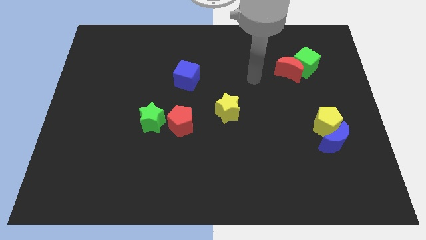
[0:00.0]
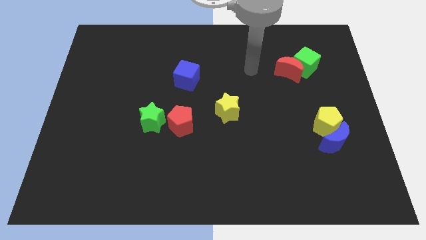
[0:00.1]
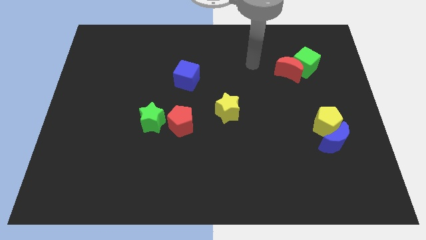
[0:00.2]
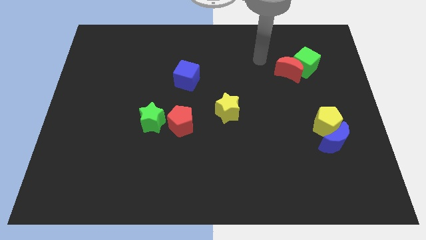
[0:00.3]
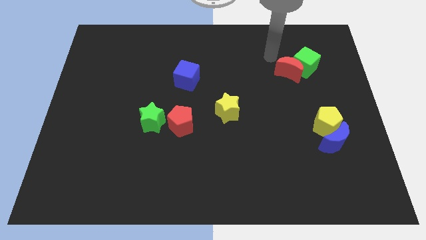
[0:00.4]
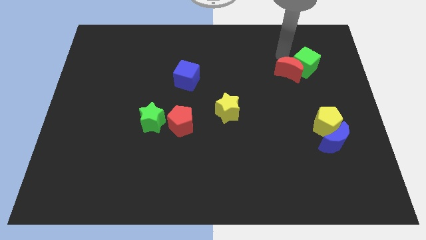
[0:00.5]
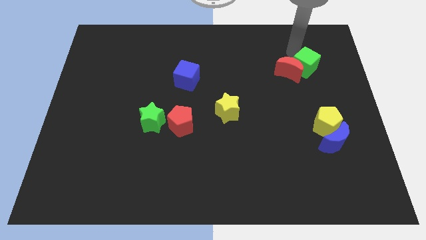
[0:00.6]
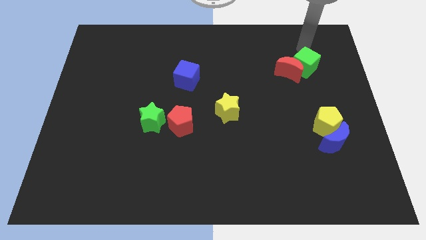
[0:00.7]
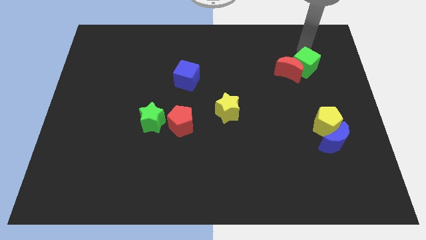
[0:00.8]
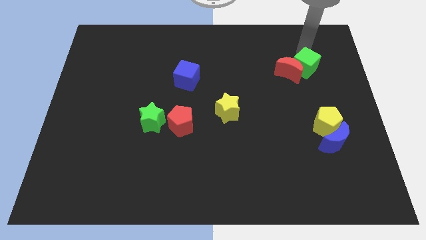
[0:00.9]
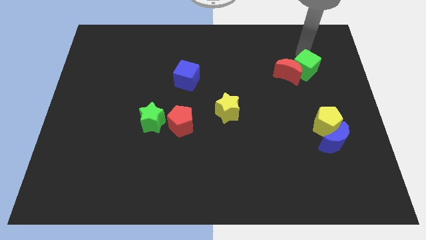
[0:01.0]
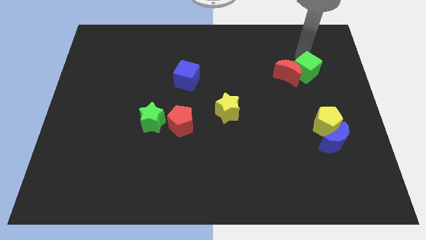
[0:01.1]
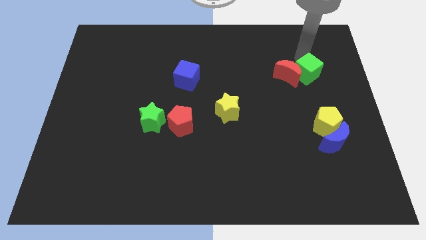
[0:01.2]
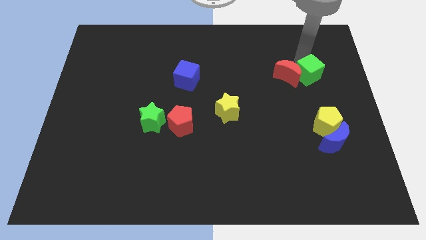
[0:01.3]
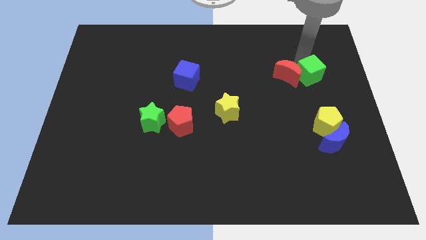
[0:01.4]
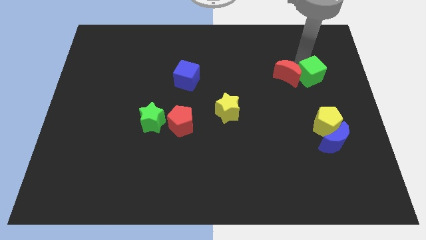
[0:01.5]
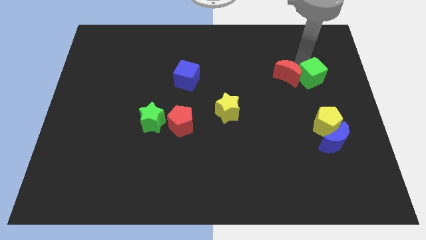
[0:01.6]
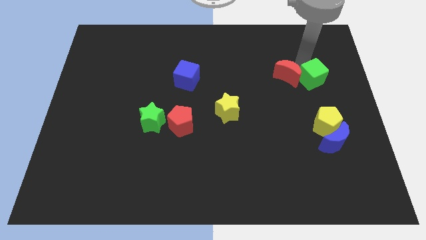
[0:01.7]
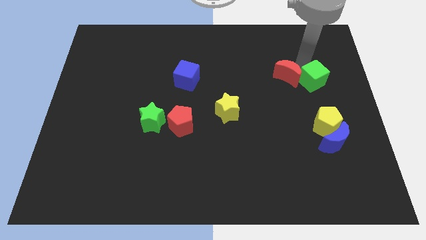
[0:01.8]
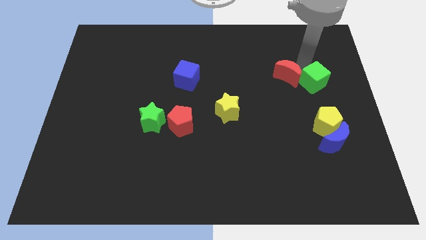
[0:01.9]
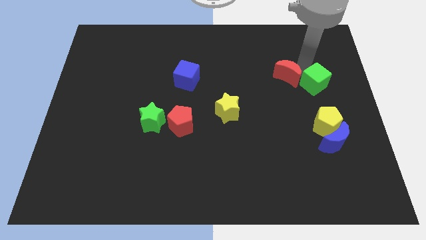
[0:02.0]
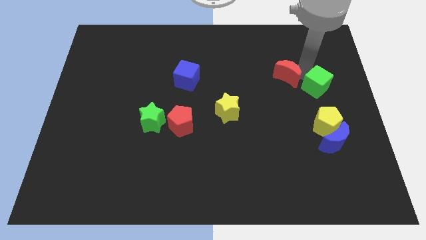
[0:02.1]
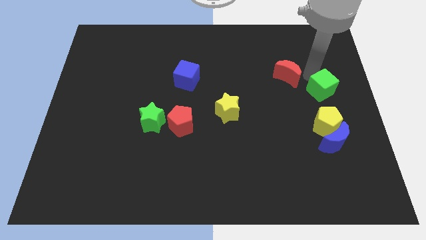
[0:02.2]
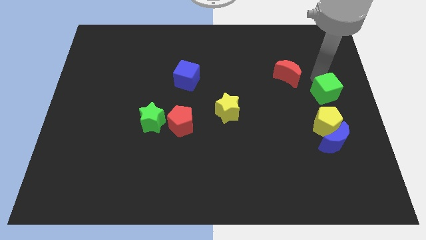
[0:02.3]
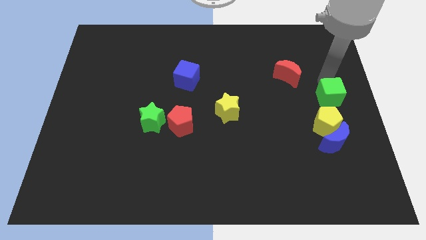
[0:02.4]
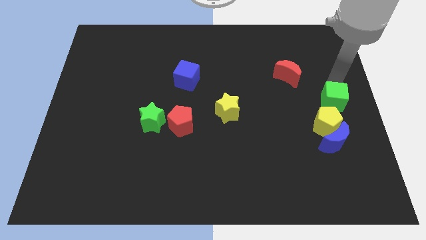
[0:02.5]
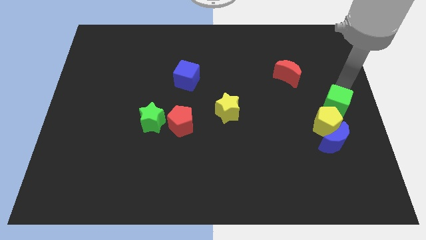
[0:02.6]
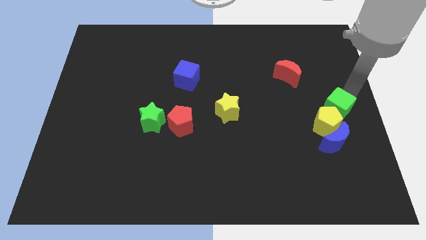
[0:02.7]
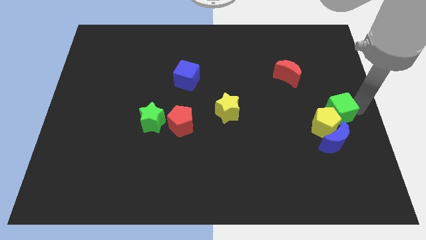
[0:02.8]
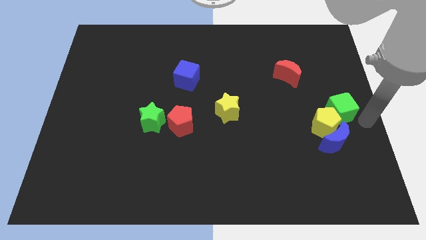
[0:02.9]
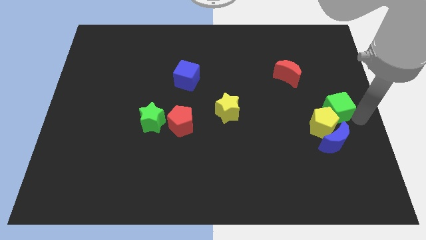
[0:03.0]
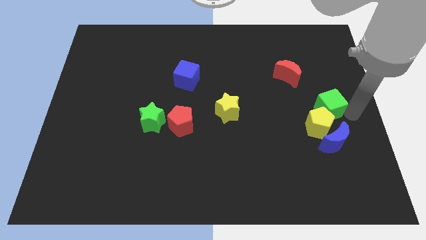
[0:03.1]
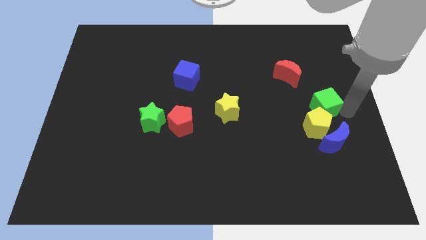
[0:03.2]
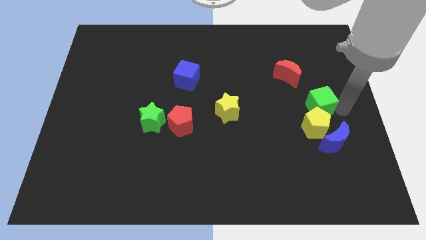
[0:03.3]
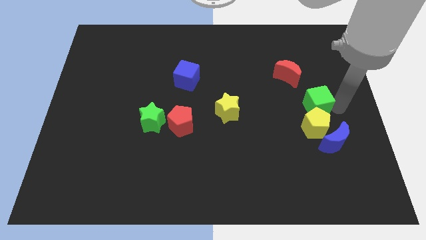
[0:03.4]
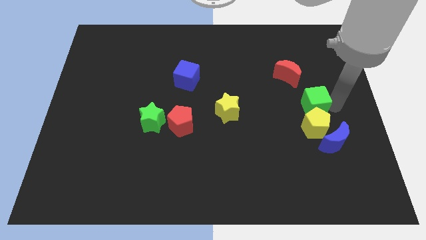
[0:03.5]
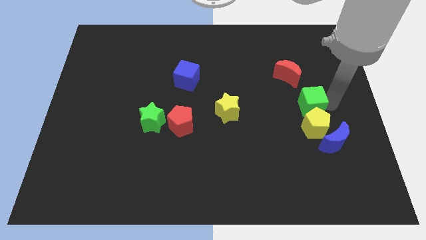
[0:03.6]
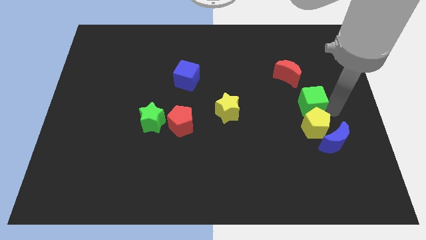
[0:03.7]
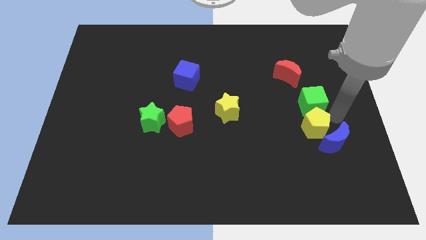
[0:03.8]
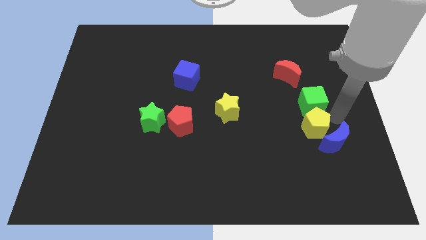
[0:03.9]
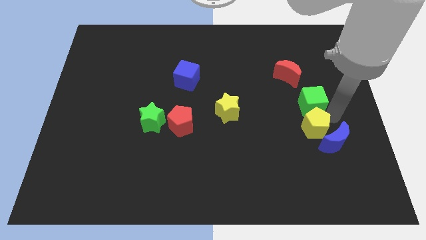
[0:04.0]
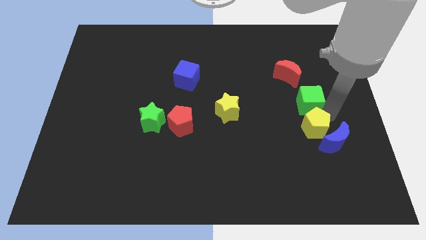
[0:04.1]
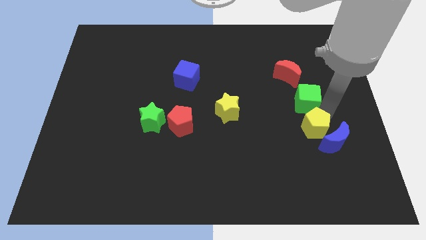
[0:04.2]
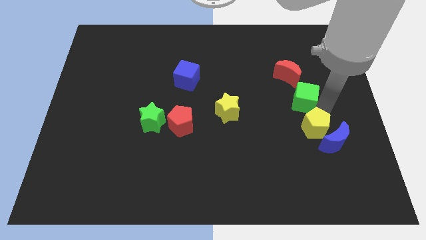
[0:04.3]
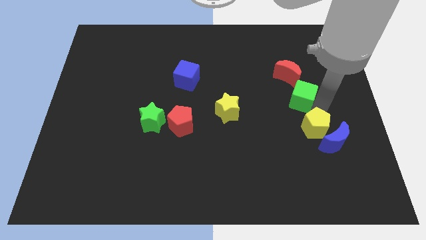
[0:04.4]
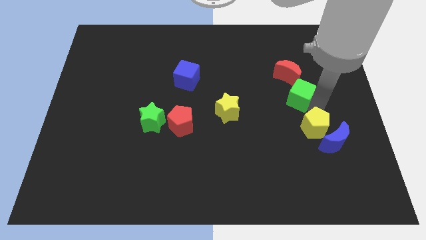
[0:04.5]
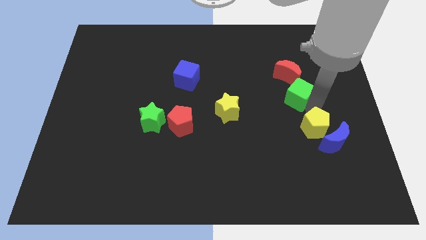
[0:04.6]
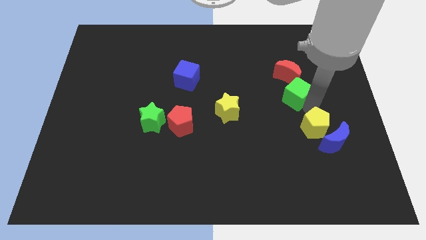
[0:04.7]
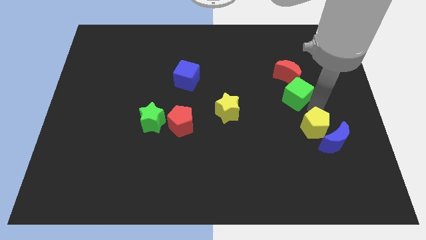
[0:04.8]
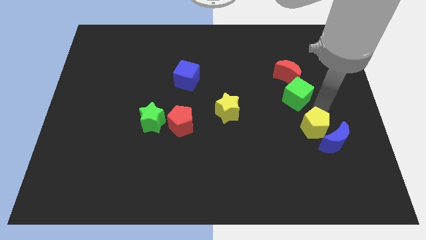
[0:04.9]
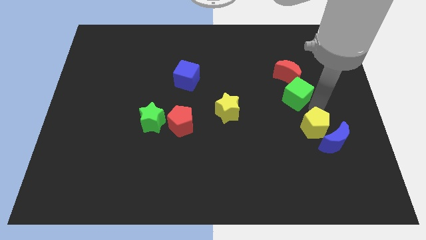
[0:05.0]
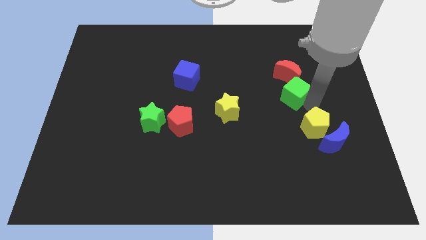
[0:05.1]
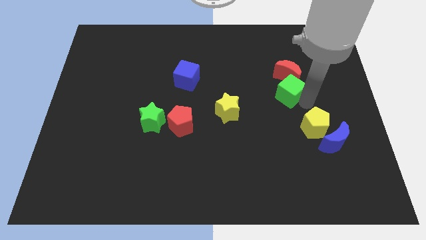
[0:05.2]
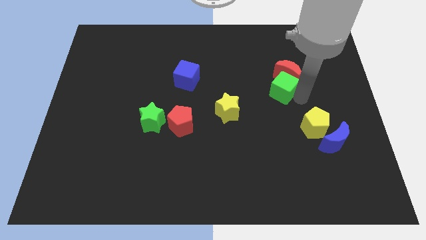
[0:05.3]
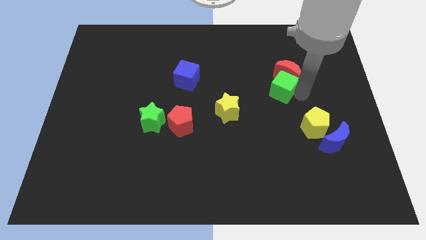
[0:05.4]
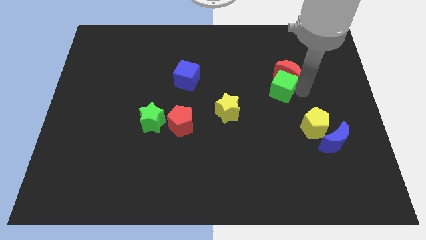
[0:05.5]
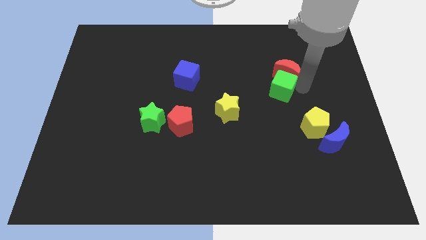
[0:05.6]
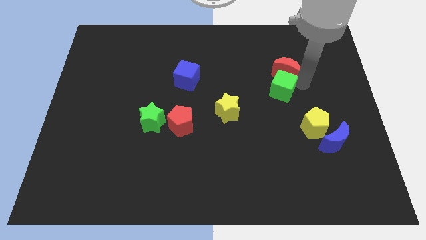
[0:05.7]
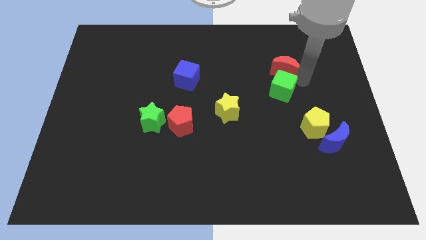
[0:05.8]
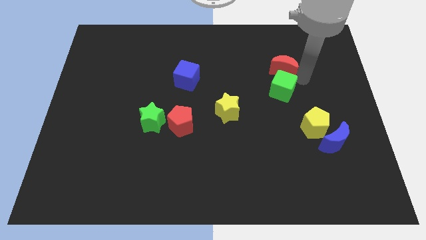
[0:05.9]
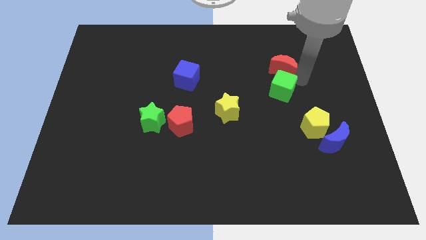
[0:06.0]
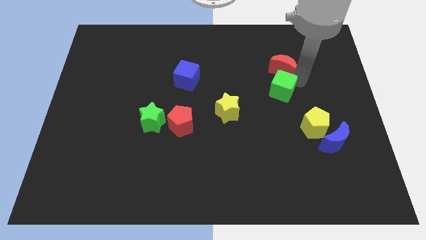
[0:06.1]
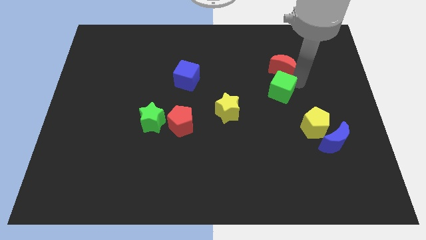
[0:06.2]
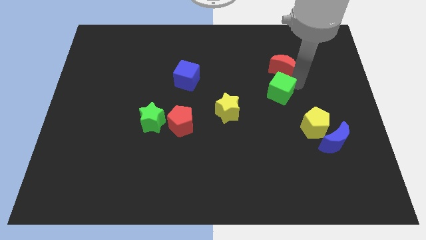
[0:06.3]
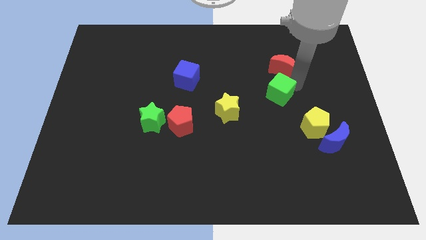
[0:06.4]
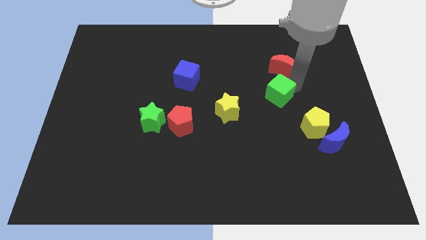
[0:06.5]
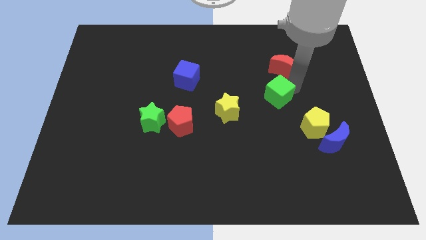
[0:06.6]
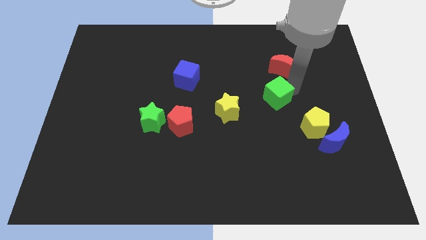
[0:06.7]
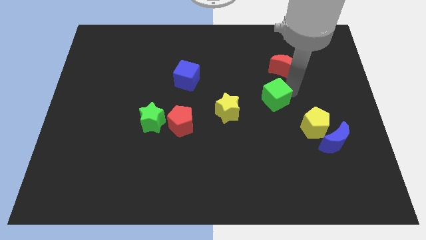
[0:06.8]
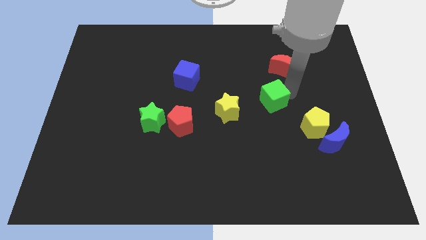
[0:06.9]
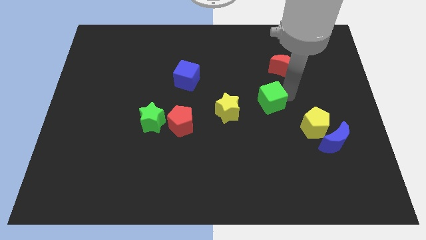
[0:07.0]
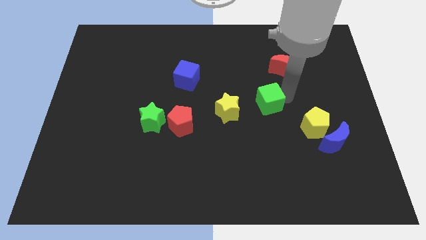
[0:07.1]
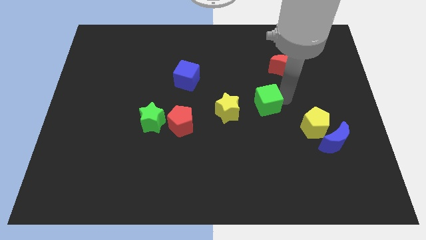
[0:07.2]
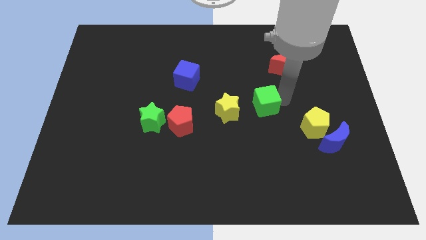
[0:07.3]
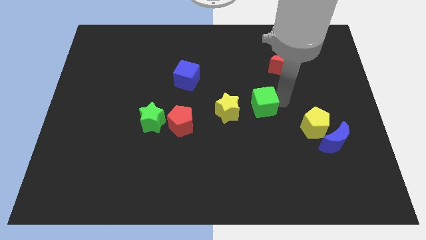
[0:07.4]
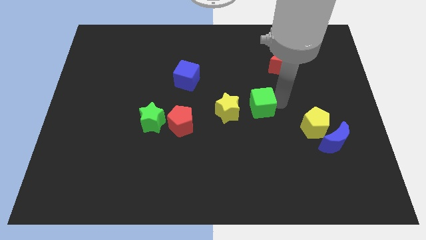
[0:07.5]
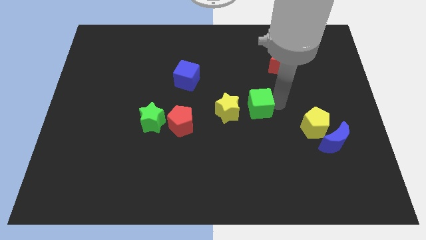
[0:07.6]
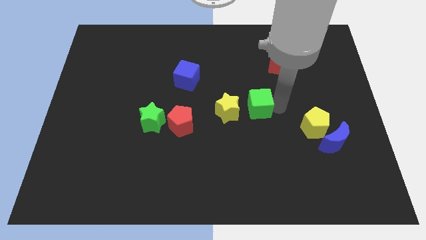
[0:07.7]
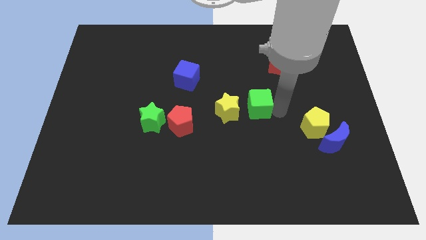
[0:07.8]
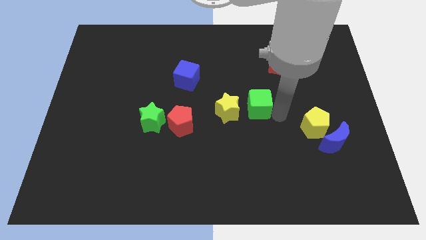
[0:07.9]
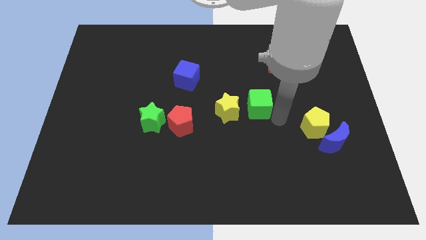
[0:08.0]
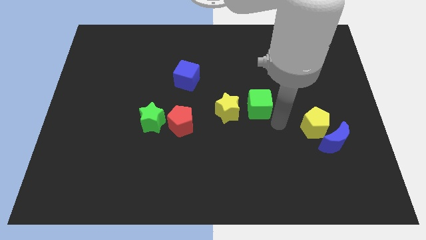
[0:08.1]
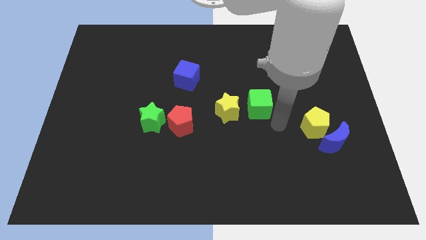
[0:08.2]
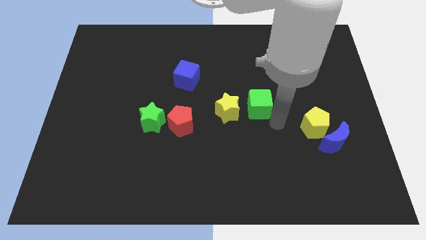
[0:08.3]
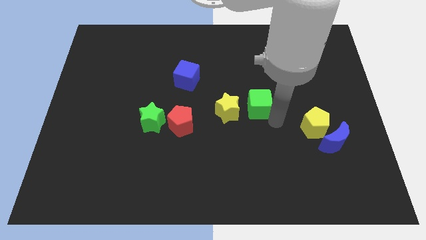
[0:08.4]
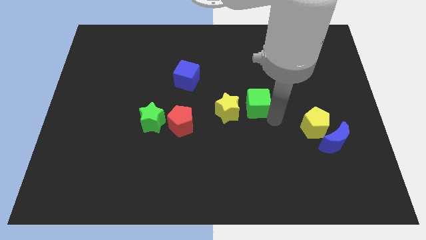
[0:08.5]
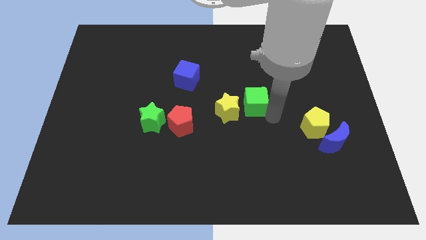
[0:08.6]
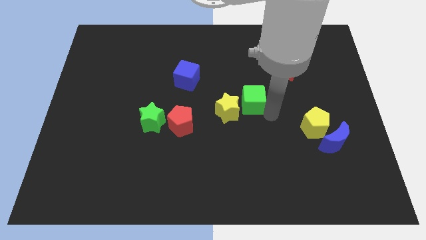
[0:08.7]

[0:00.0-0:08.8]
slide the green cube next to the yellow star
